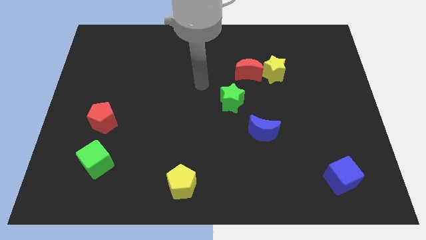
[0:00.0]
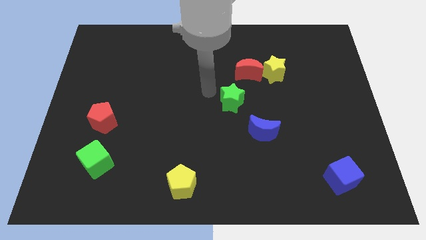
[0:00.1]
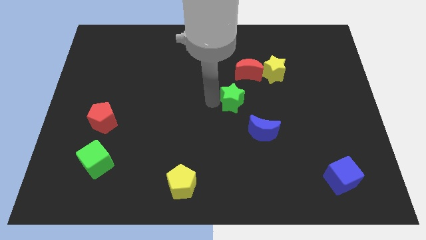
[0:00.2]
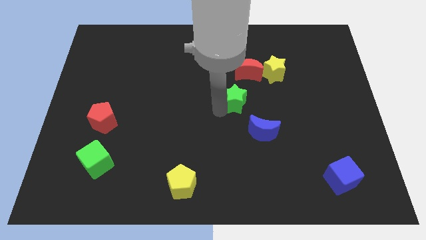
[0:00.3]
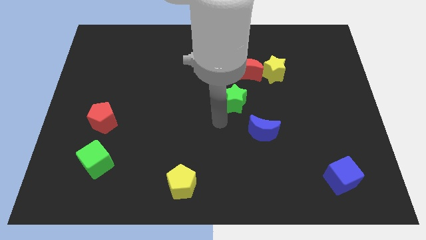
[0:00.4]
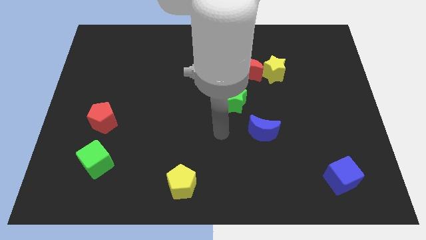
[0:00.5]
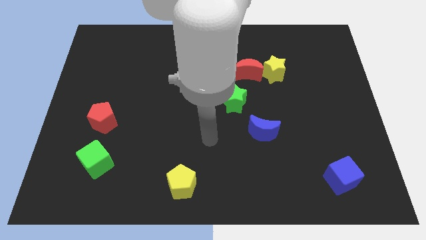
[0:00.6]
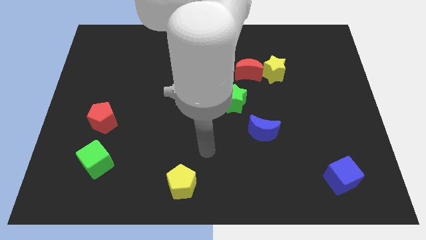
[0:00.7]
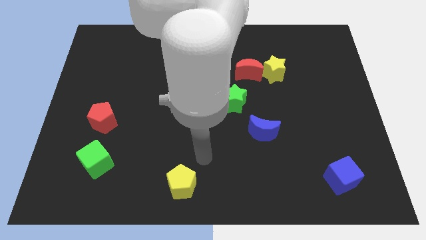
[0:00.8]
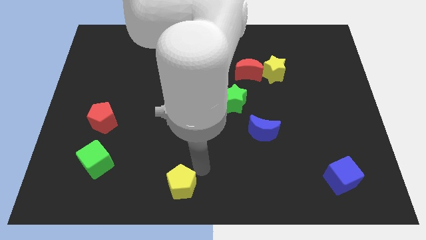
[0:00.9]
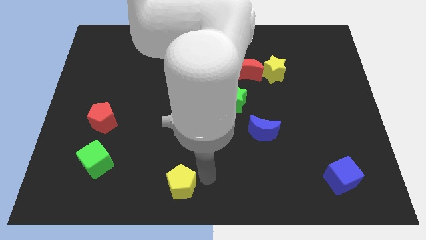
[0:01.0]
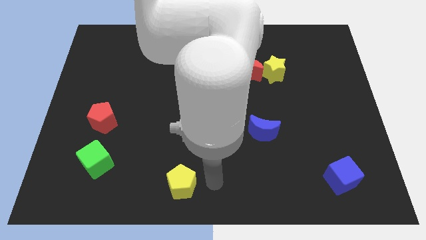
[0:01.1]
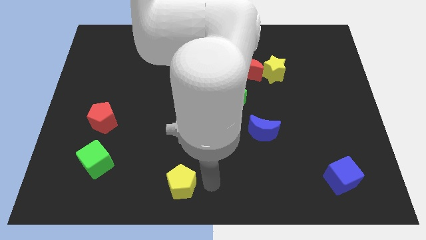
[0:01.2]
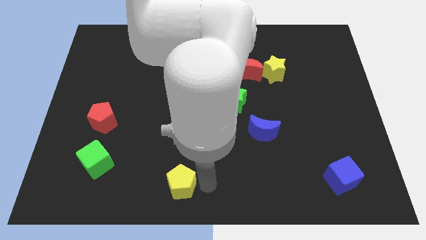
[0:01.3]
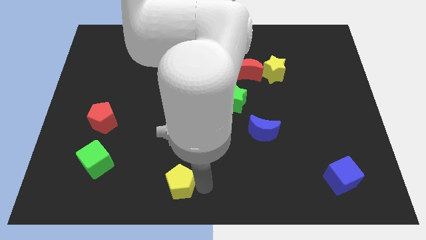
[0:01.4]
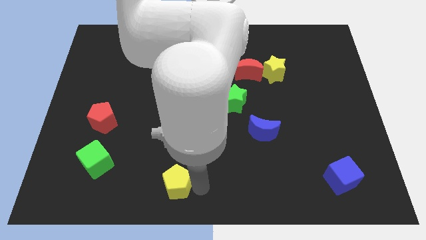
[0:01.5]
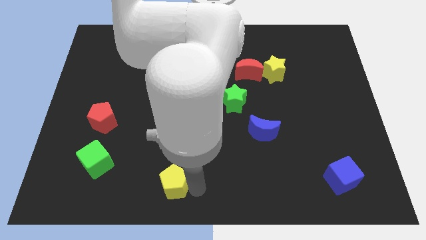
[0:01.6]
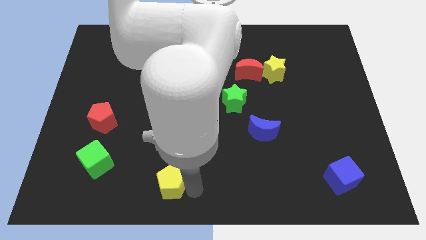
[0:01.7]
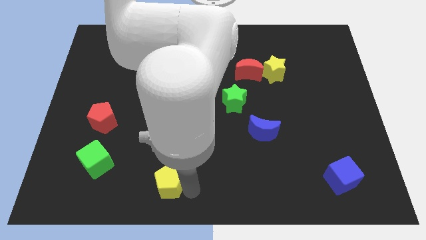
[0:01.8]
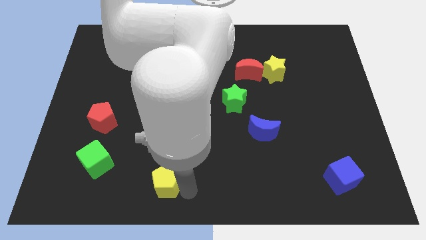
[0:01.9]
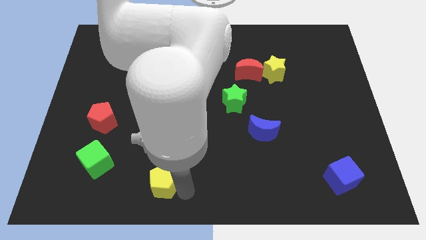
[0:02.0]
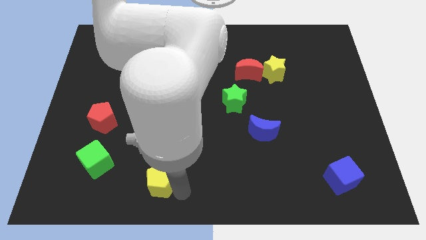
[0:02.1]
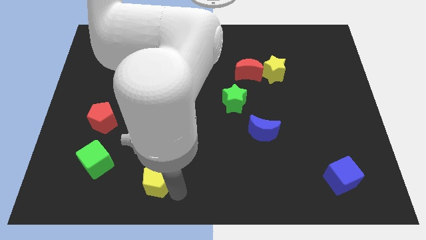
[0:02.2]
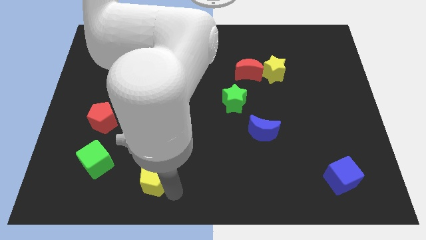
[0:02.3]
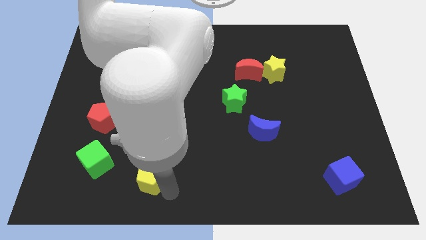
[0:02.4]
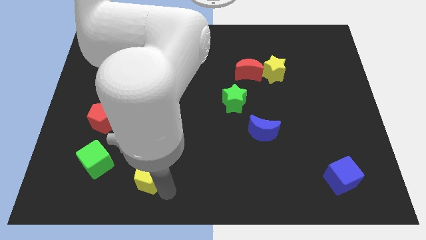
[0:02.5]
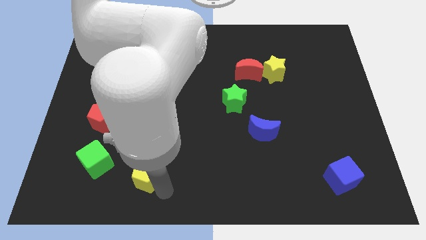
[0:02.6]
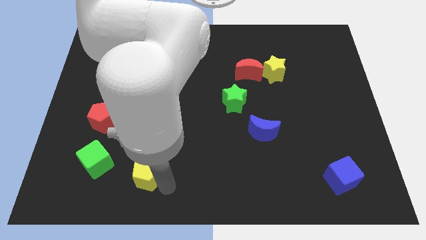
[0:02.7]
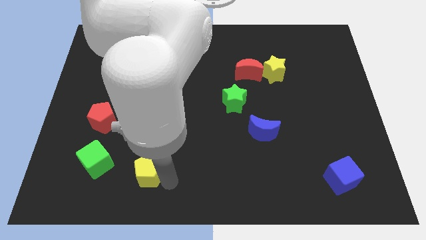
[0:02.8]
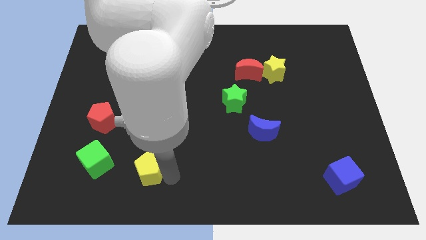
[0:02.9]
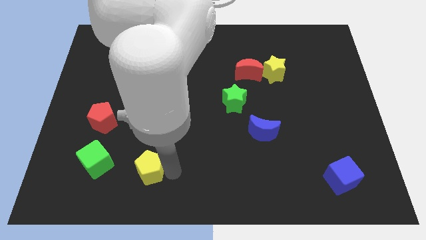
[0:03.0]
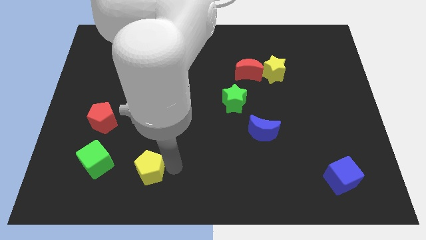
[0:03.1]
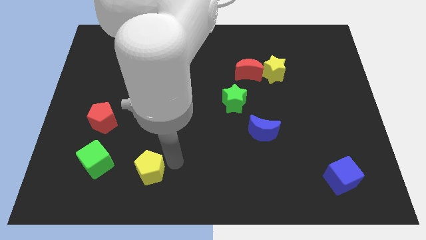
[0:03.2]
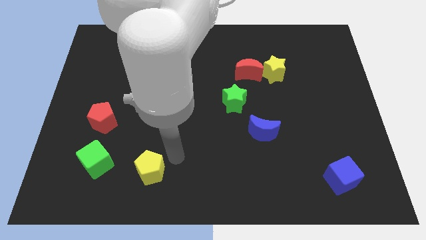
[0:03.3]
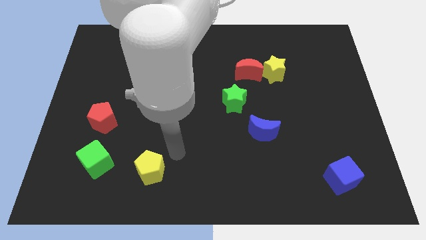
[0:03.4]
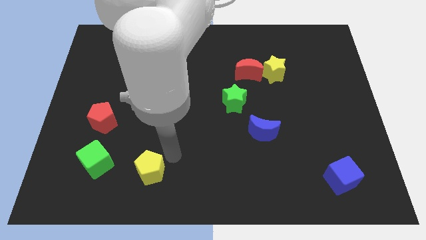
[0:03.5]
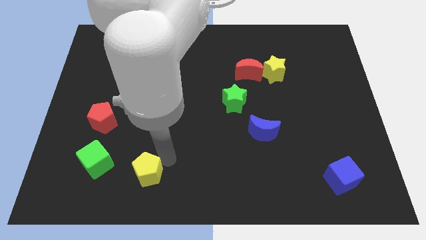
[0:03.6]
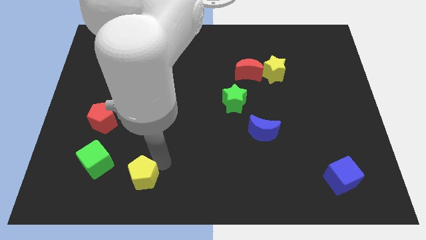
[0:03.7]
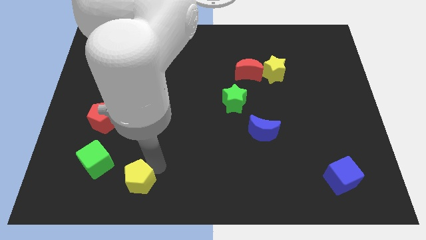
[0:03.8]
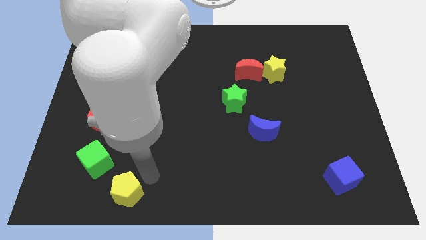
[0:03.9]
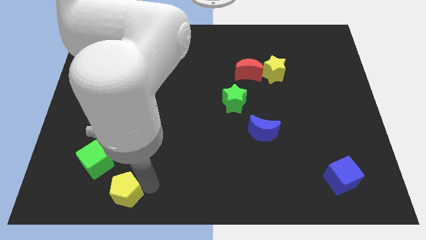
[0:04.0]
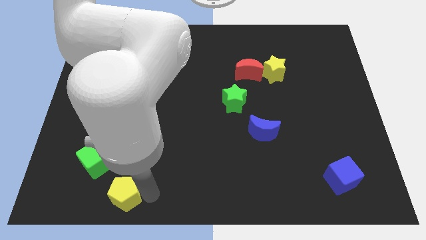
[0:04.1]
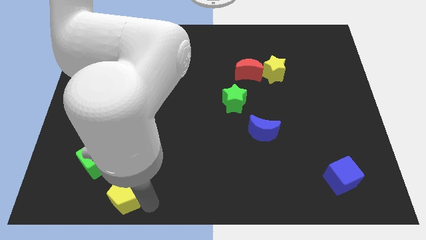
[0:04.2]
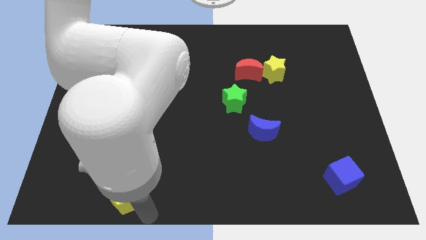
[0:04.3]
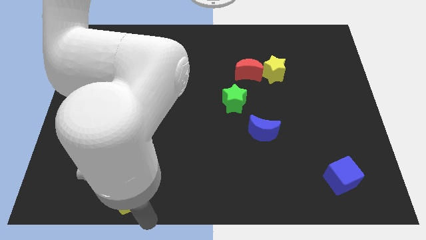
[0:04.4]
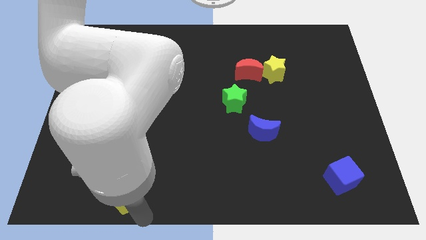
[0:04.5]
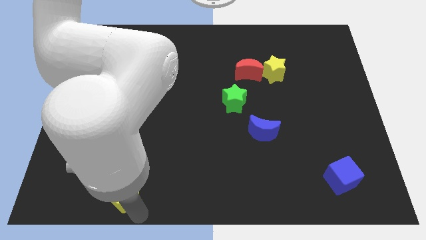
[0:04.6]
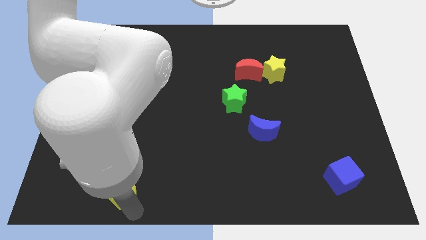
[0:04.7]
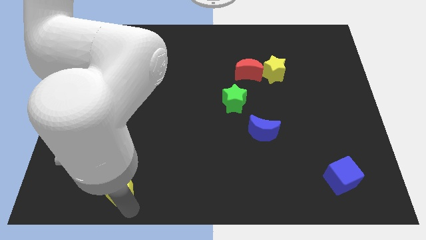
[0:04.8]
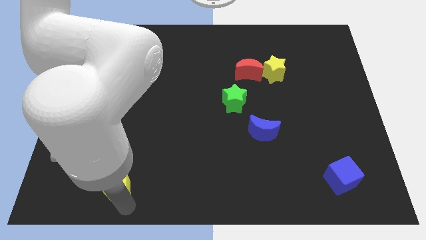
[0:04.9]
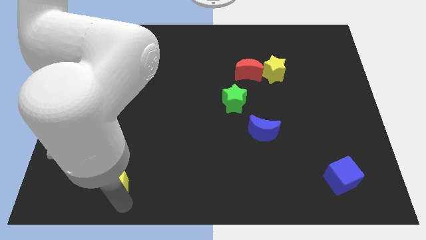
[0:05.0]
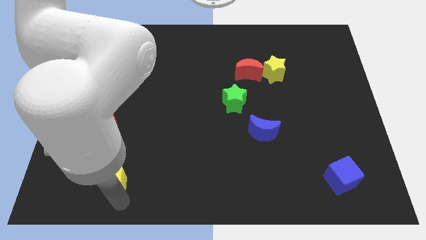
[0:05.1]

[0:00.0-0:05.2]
slide the yellow pentagon towards the green cube

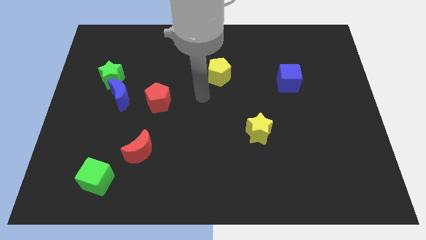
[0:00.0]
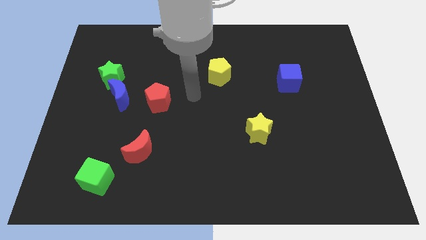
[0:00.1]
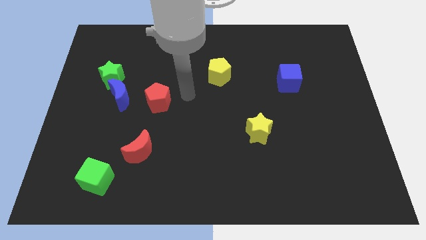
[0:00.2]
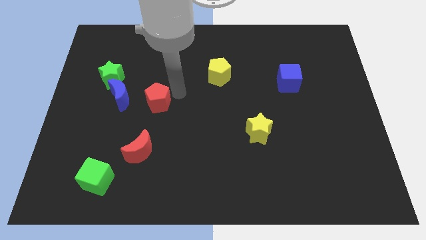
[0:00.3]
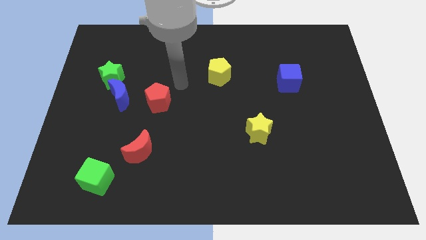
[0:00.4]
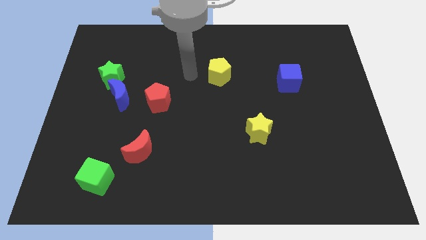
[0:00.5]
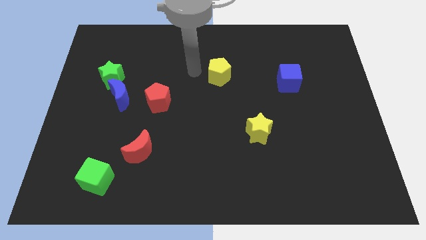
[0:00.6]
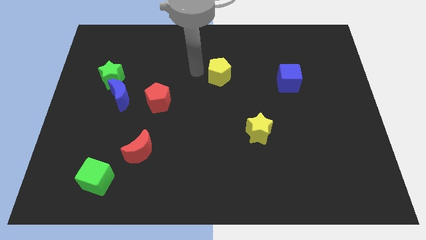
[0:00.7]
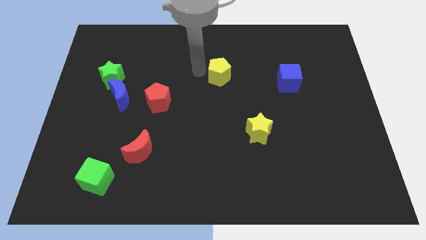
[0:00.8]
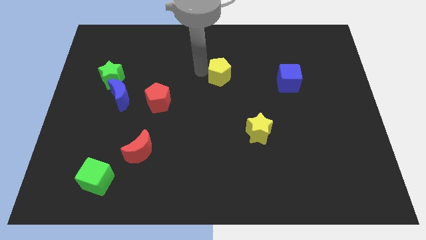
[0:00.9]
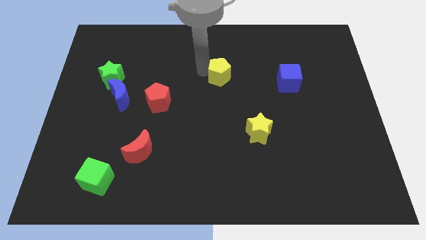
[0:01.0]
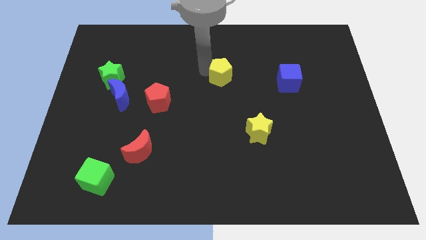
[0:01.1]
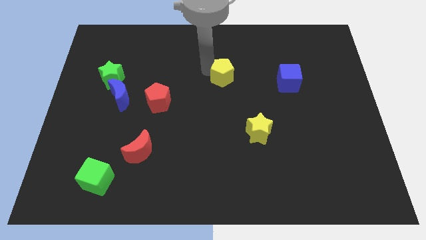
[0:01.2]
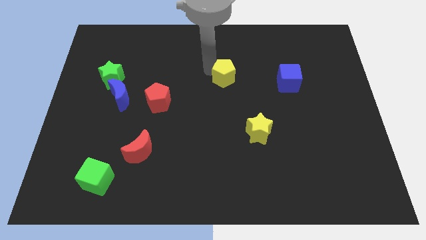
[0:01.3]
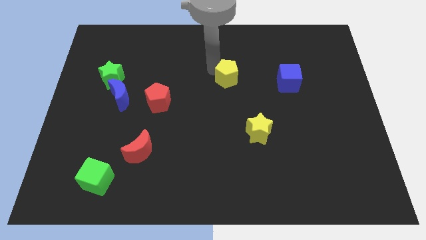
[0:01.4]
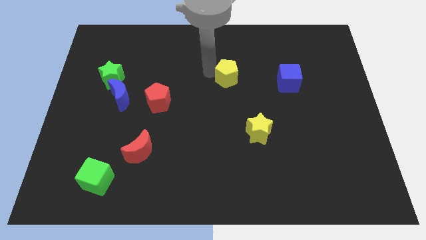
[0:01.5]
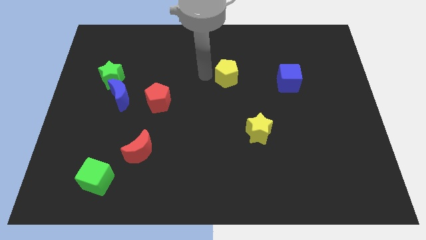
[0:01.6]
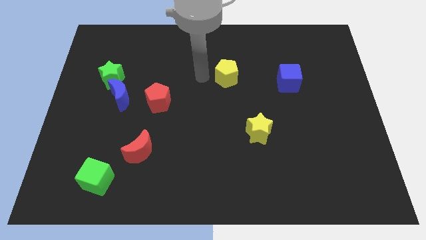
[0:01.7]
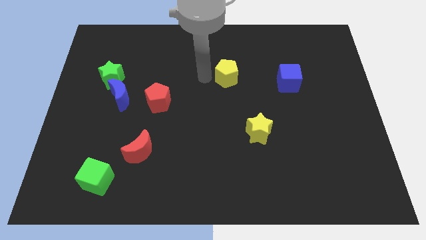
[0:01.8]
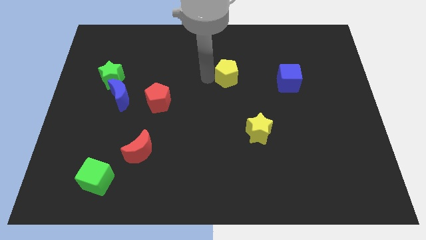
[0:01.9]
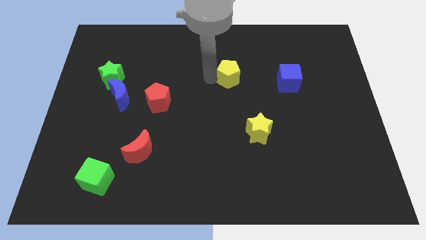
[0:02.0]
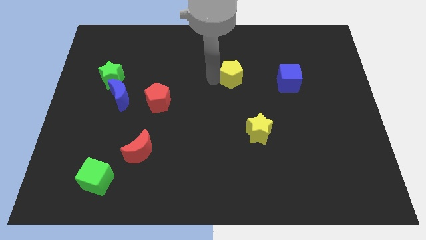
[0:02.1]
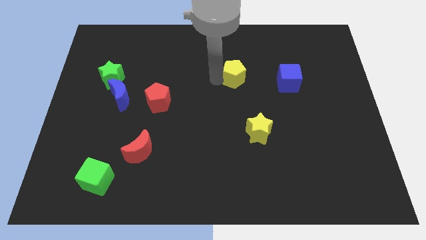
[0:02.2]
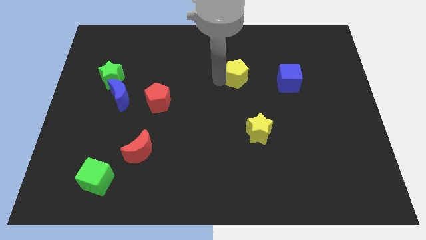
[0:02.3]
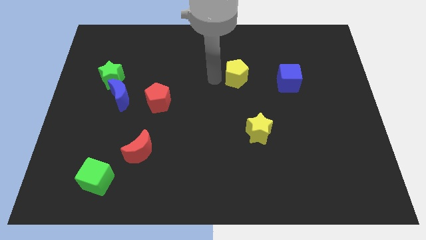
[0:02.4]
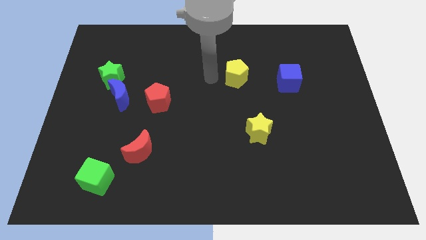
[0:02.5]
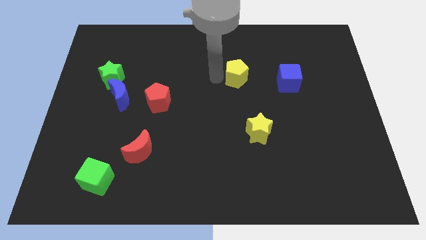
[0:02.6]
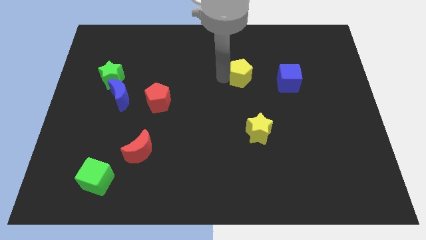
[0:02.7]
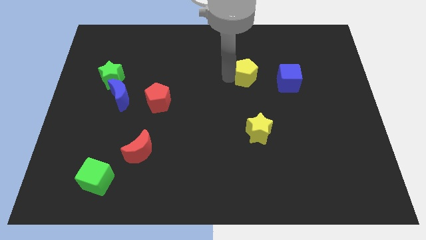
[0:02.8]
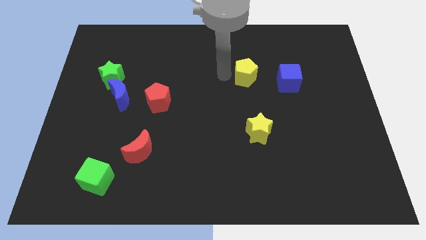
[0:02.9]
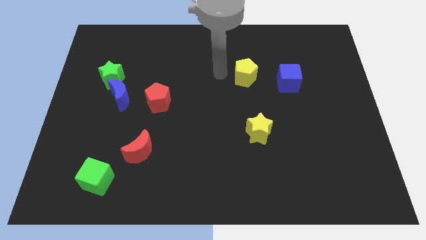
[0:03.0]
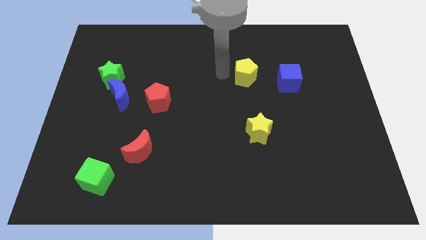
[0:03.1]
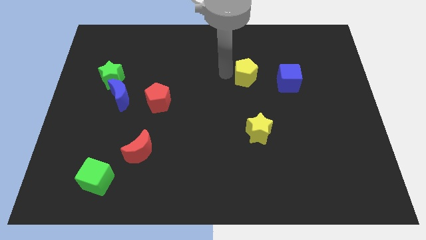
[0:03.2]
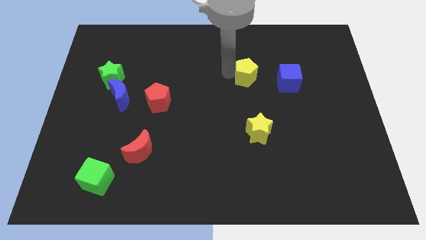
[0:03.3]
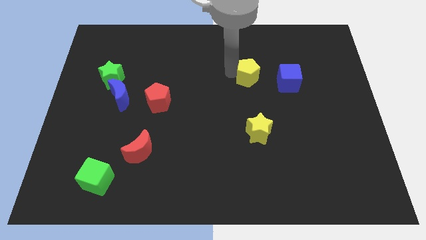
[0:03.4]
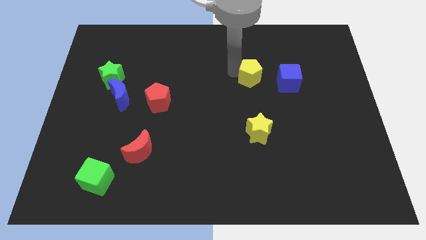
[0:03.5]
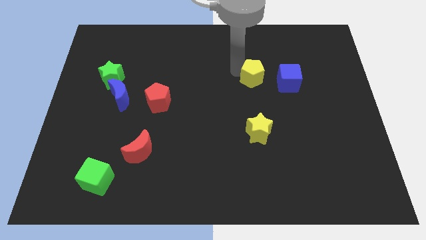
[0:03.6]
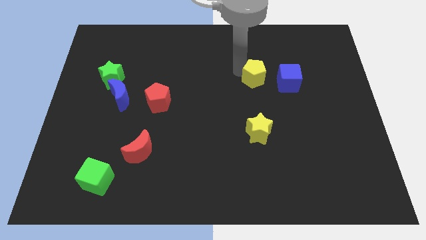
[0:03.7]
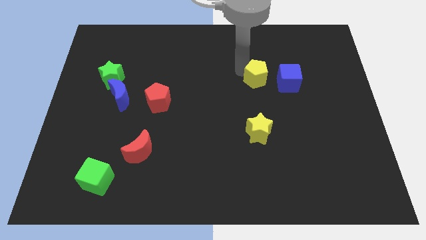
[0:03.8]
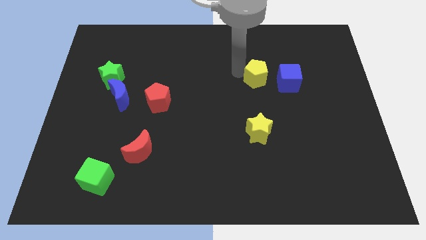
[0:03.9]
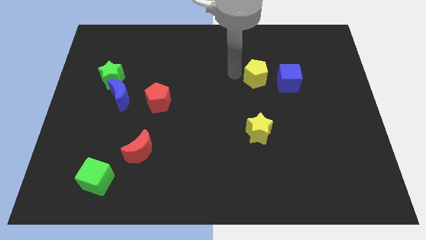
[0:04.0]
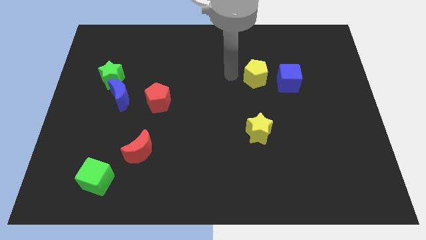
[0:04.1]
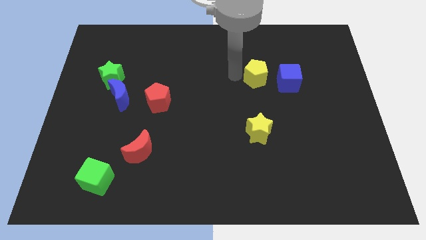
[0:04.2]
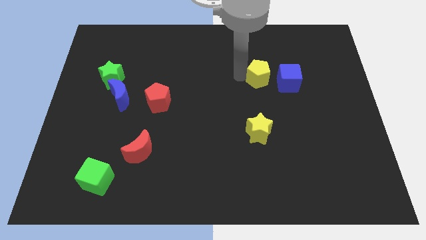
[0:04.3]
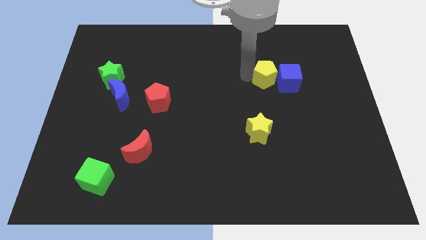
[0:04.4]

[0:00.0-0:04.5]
slide the yellow pentagon towards the blue cube
